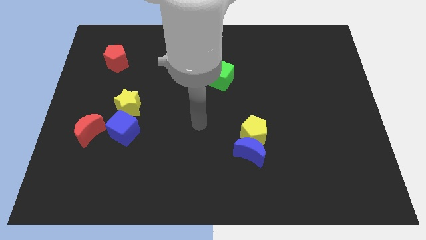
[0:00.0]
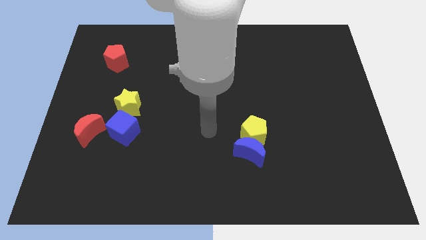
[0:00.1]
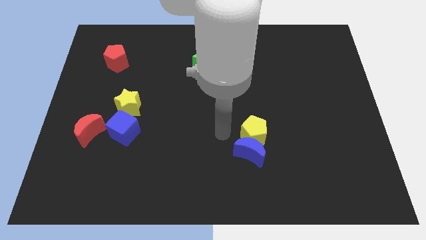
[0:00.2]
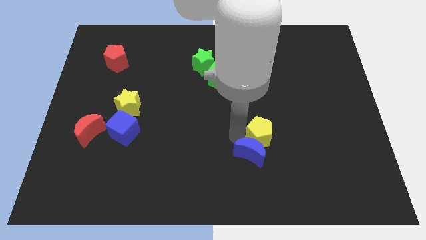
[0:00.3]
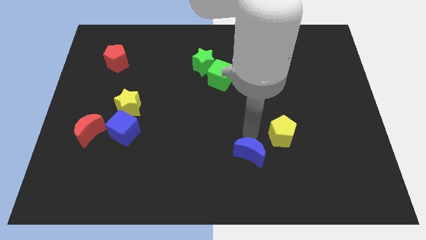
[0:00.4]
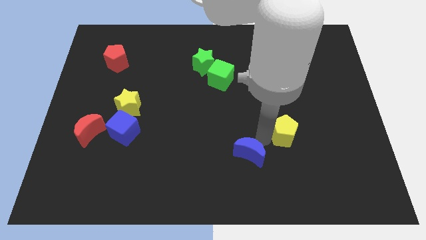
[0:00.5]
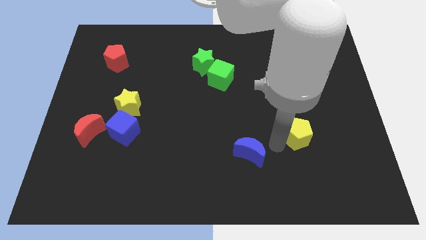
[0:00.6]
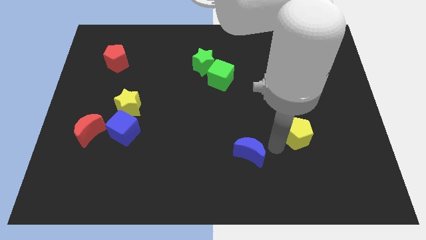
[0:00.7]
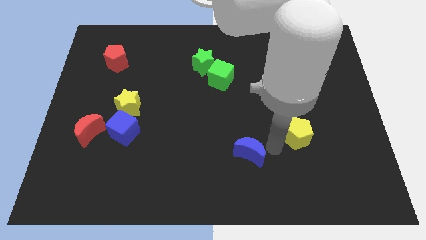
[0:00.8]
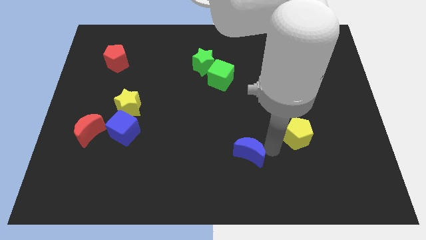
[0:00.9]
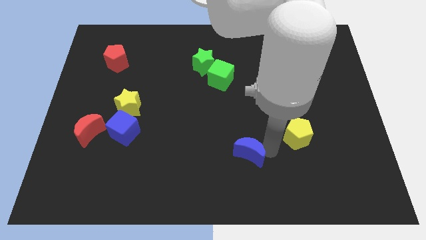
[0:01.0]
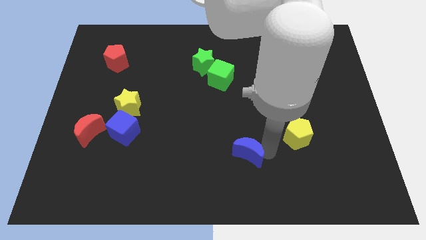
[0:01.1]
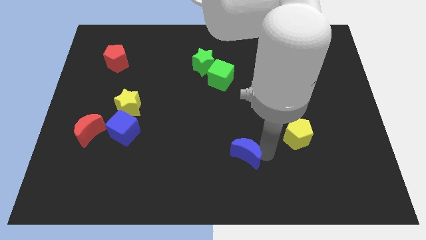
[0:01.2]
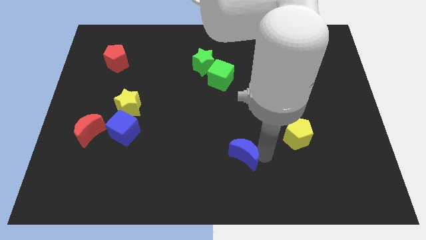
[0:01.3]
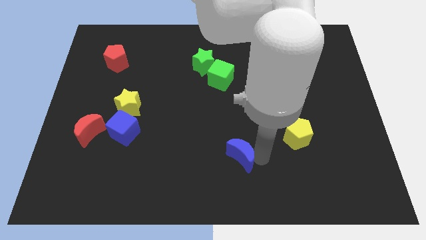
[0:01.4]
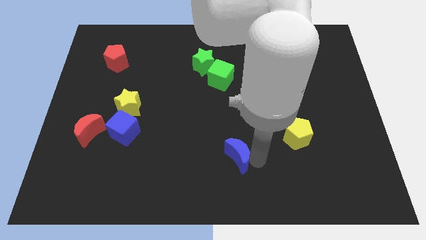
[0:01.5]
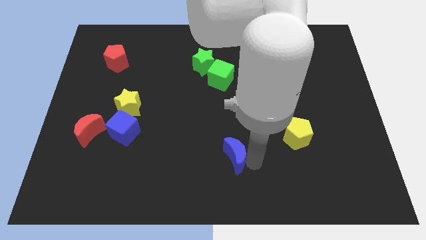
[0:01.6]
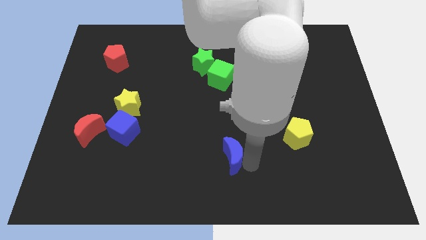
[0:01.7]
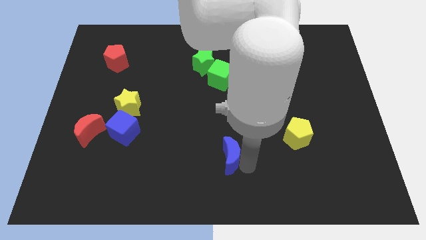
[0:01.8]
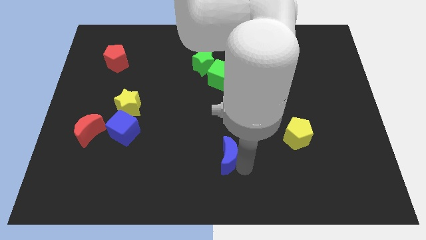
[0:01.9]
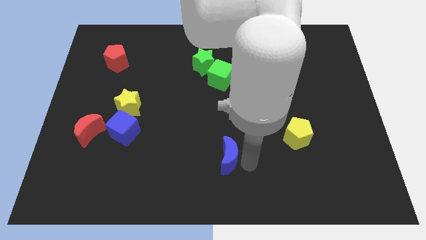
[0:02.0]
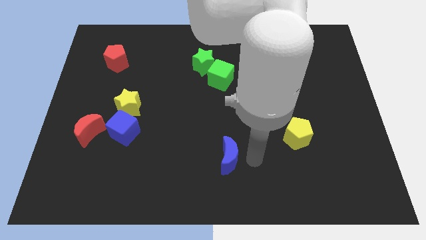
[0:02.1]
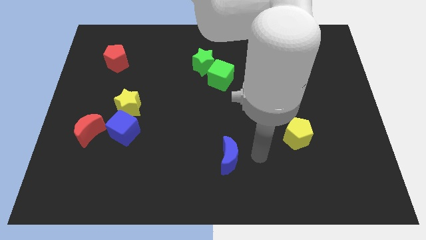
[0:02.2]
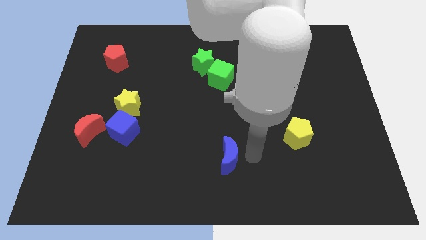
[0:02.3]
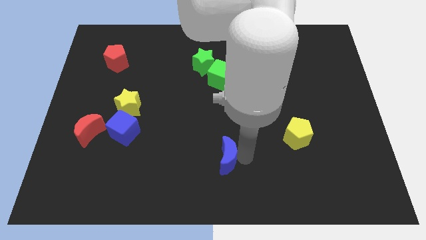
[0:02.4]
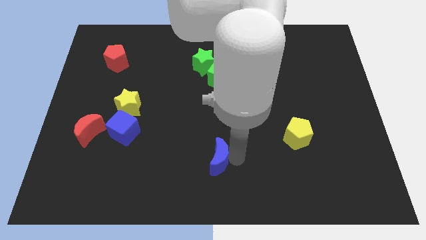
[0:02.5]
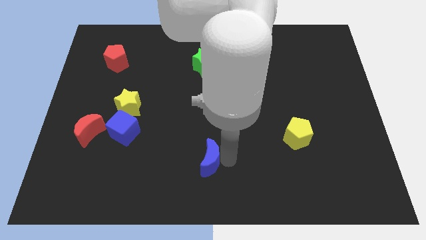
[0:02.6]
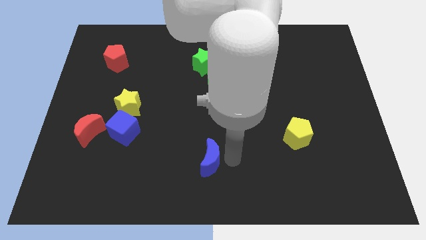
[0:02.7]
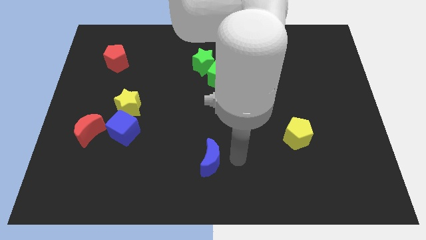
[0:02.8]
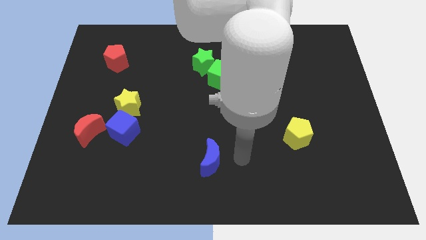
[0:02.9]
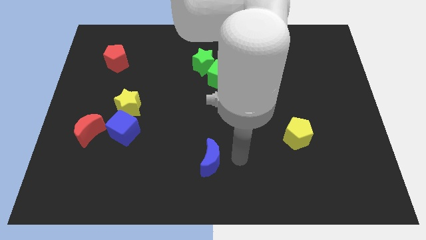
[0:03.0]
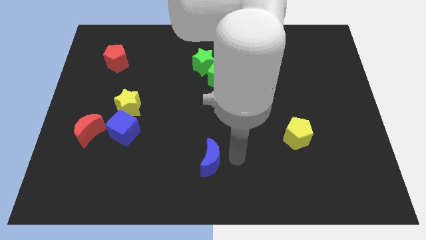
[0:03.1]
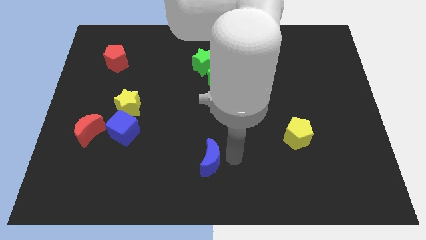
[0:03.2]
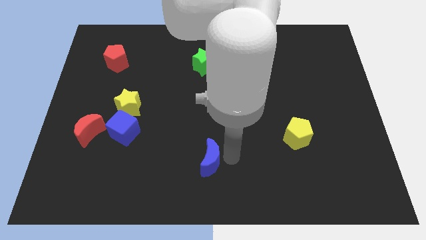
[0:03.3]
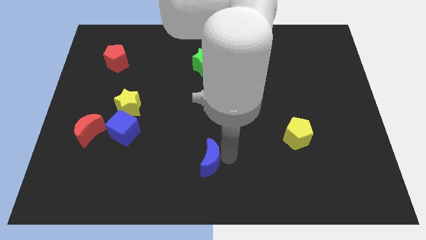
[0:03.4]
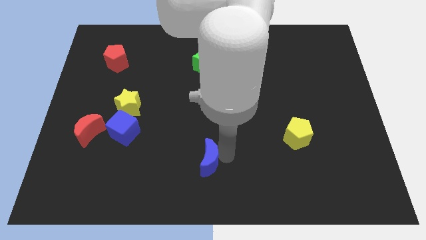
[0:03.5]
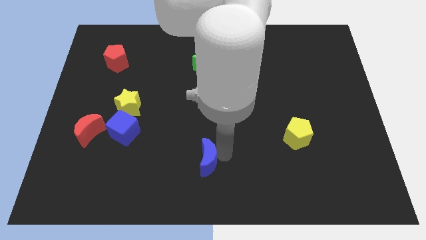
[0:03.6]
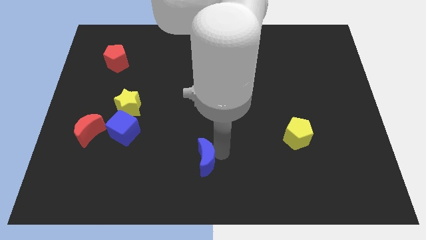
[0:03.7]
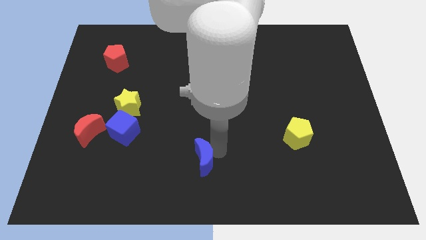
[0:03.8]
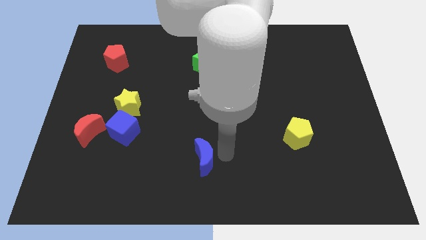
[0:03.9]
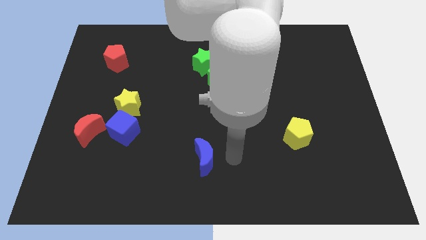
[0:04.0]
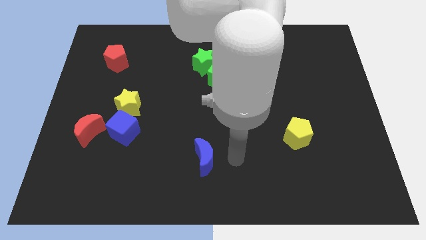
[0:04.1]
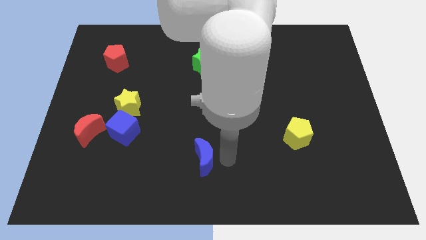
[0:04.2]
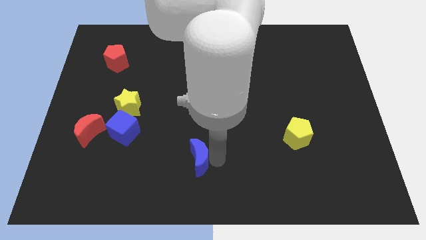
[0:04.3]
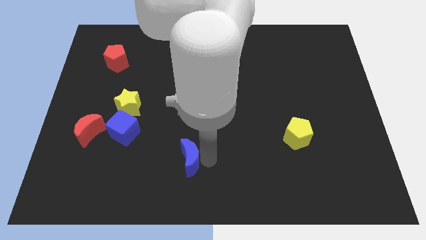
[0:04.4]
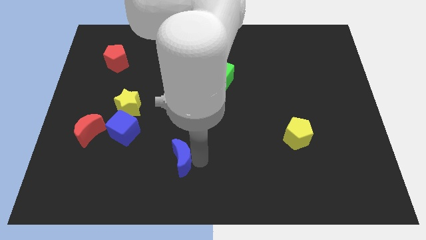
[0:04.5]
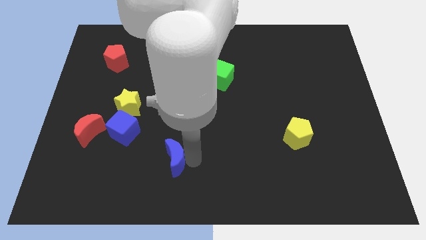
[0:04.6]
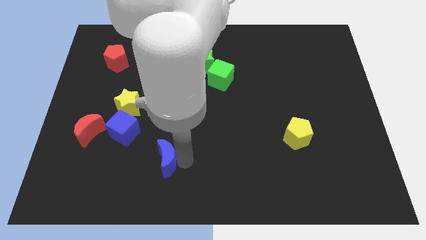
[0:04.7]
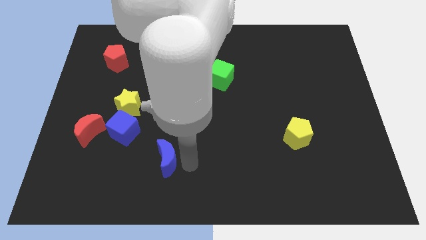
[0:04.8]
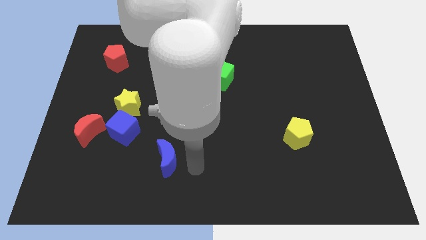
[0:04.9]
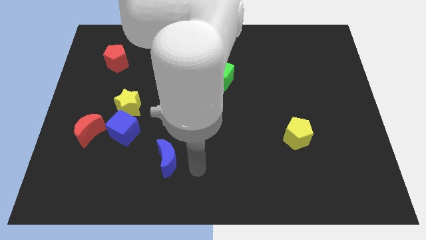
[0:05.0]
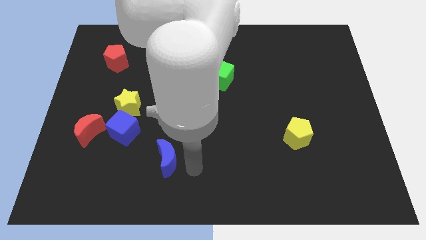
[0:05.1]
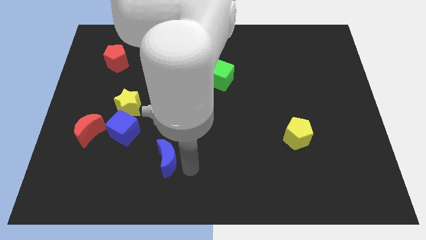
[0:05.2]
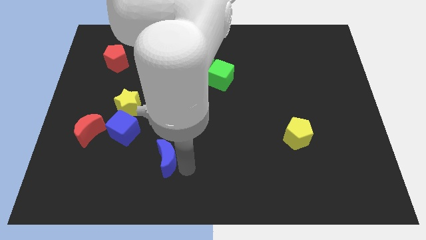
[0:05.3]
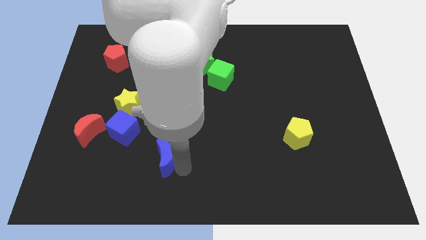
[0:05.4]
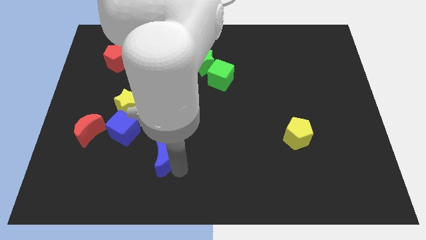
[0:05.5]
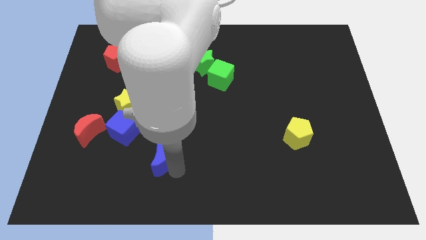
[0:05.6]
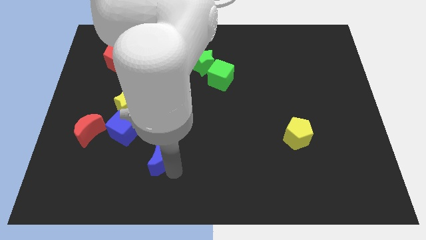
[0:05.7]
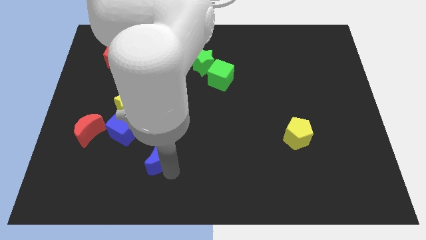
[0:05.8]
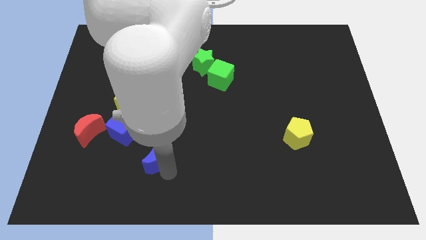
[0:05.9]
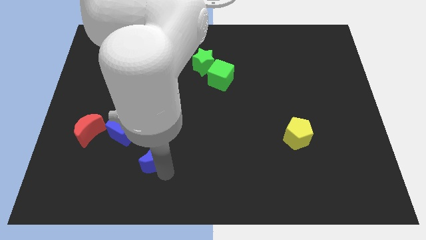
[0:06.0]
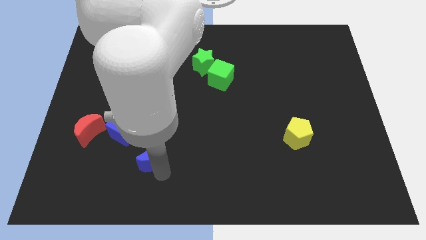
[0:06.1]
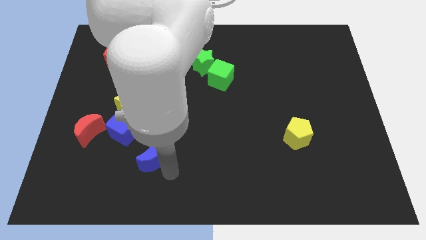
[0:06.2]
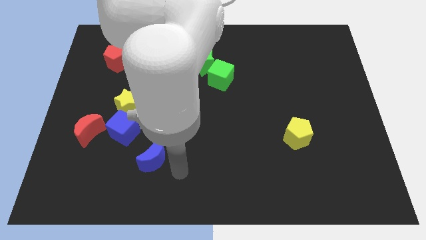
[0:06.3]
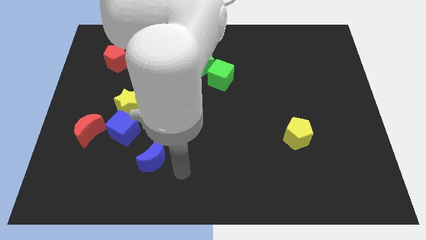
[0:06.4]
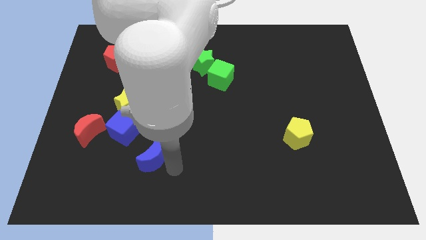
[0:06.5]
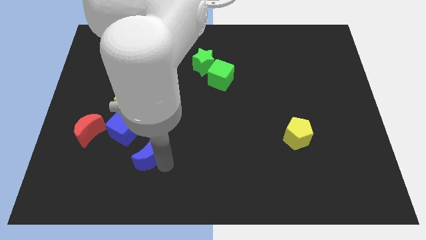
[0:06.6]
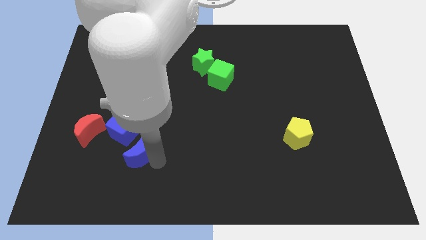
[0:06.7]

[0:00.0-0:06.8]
slide the blue moon below the yellow star

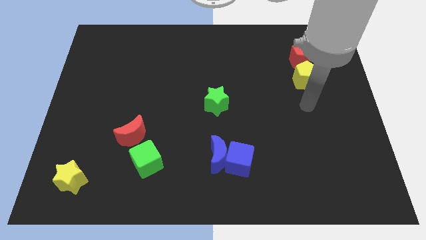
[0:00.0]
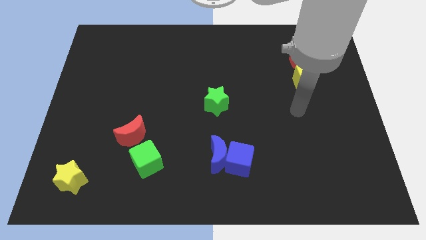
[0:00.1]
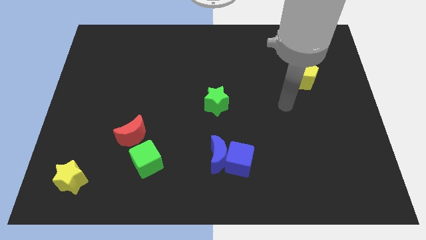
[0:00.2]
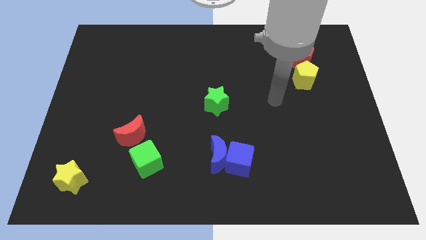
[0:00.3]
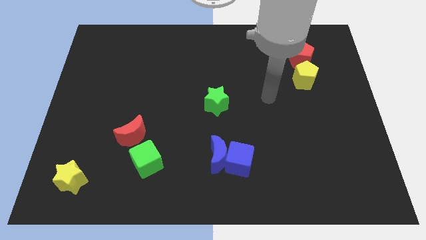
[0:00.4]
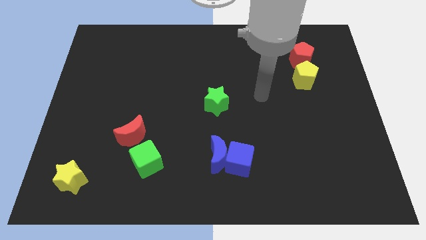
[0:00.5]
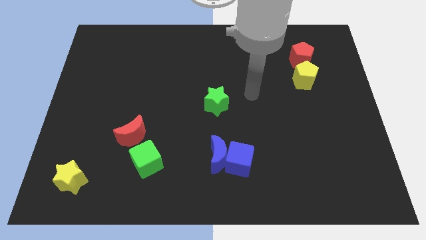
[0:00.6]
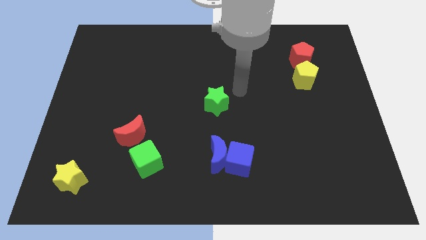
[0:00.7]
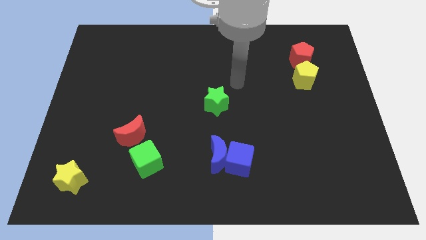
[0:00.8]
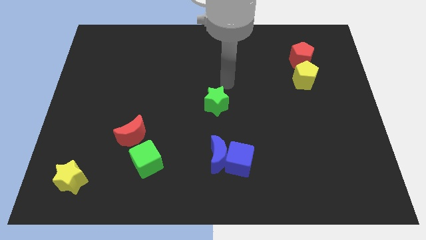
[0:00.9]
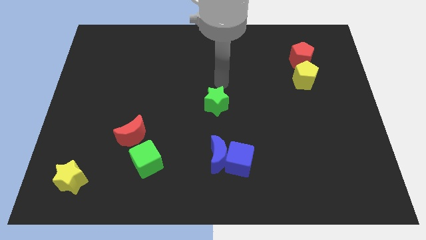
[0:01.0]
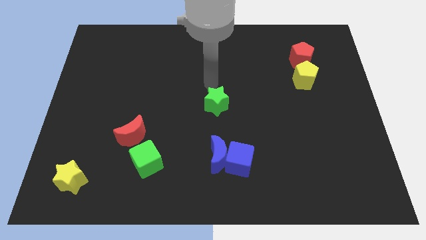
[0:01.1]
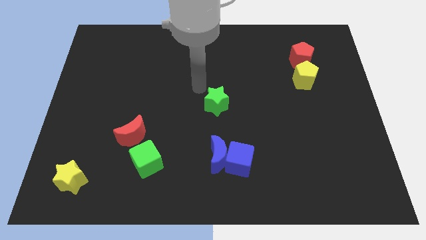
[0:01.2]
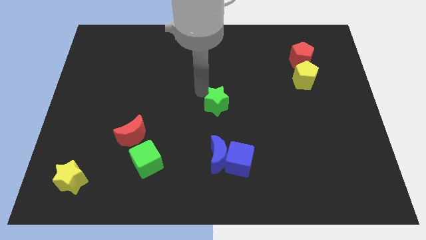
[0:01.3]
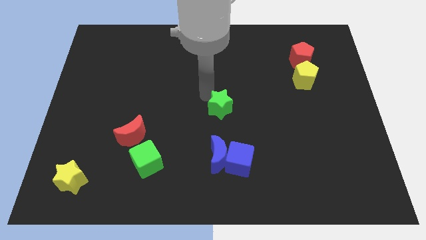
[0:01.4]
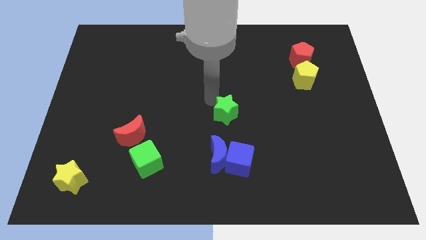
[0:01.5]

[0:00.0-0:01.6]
push the green star above the blue cube
